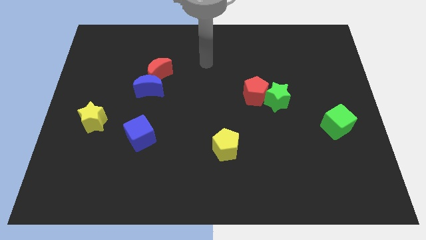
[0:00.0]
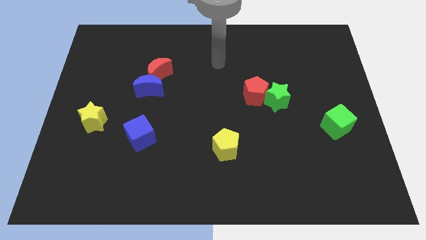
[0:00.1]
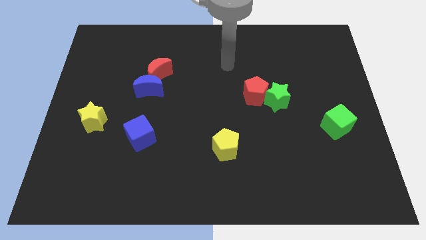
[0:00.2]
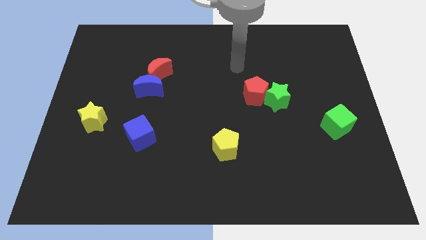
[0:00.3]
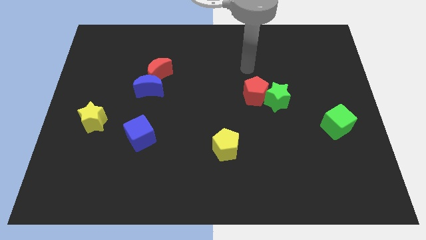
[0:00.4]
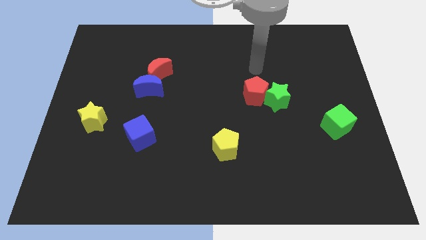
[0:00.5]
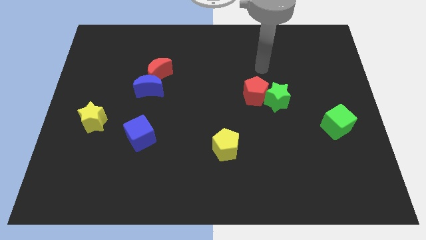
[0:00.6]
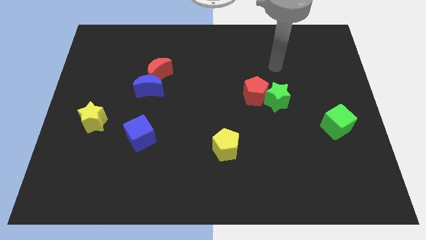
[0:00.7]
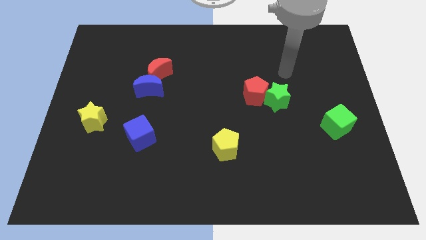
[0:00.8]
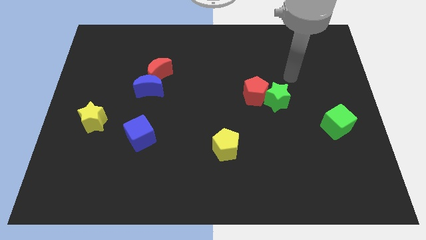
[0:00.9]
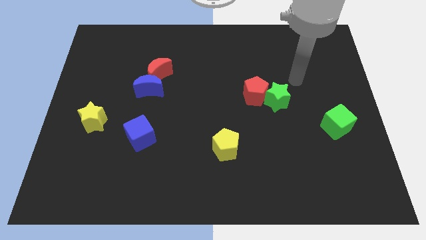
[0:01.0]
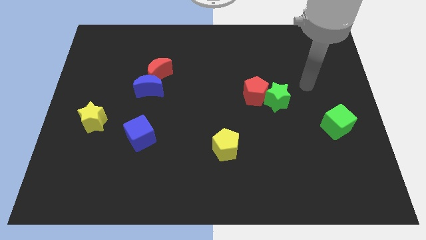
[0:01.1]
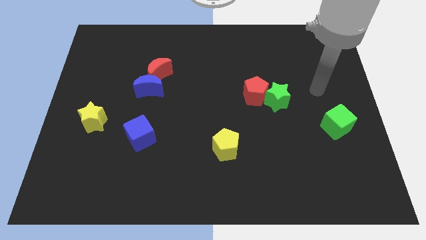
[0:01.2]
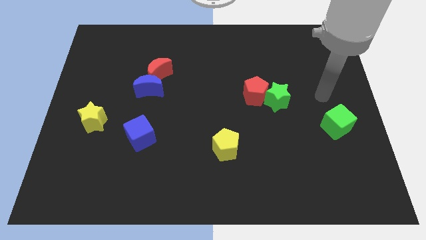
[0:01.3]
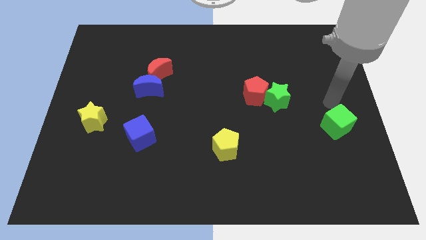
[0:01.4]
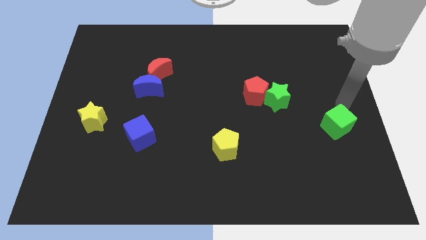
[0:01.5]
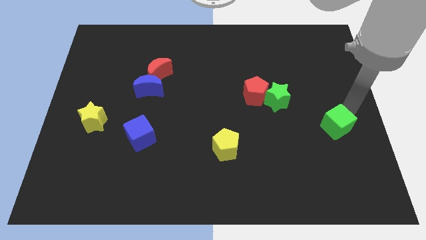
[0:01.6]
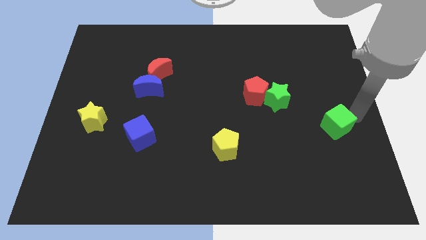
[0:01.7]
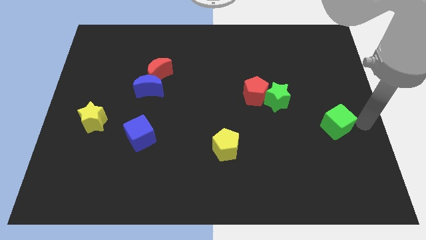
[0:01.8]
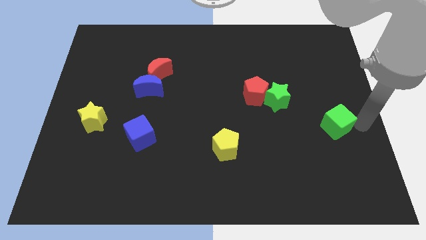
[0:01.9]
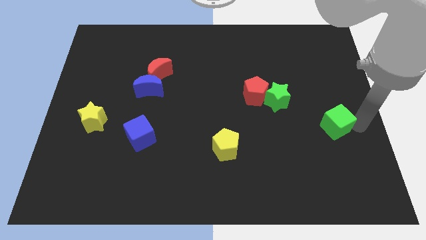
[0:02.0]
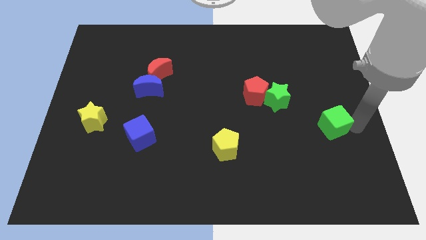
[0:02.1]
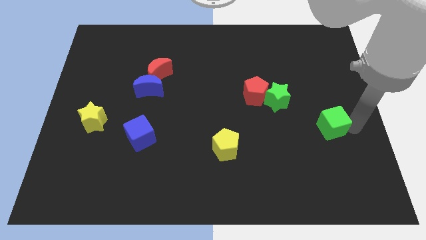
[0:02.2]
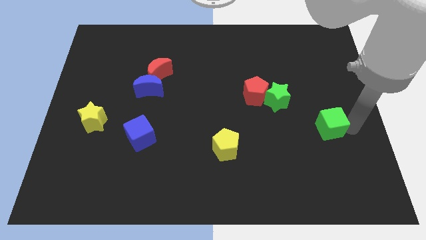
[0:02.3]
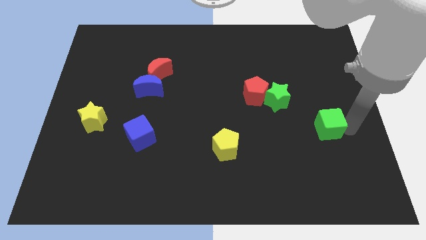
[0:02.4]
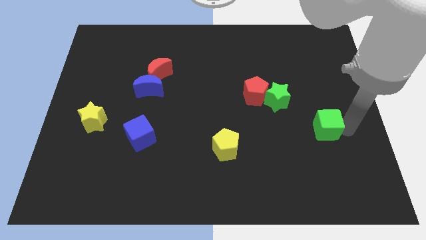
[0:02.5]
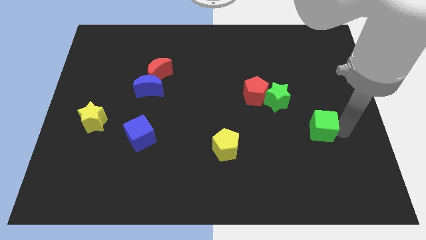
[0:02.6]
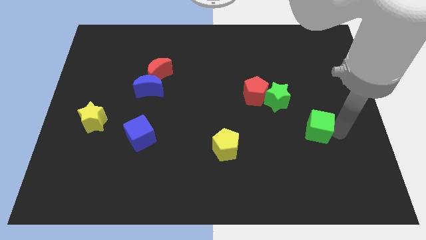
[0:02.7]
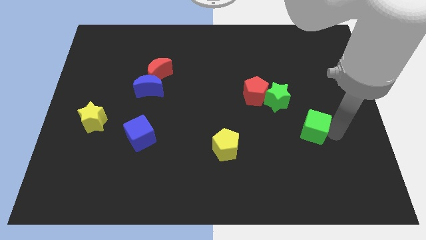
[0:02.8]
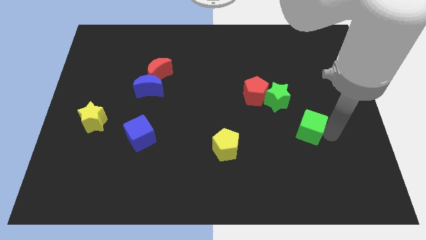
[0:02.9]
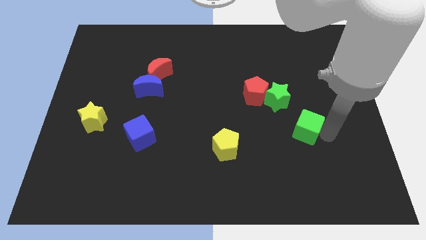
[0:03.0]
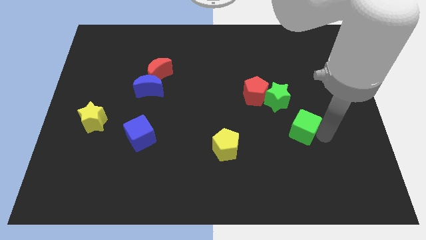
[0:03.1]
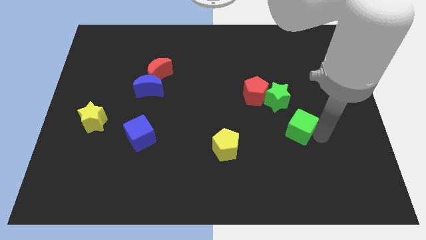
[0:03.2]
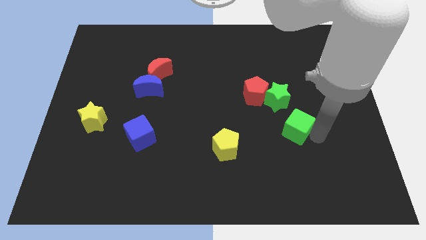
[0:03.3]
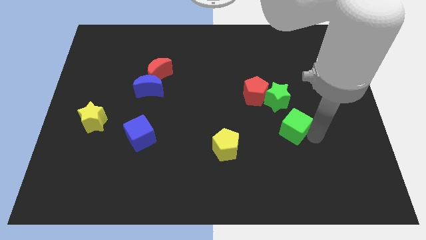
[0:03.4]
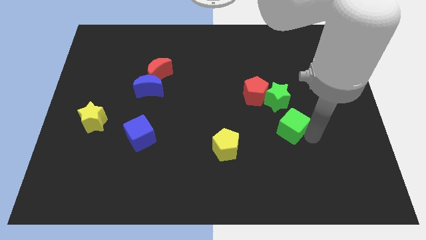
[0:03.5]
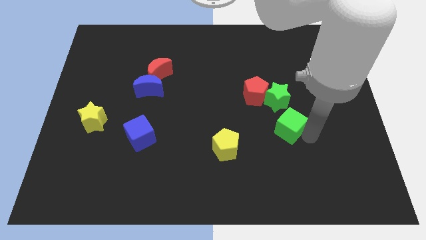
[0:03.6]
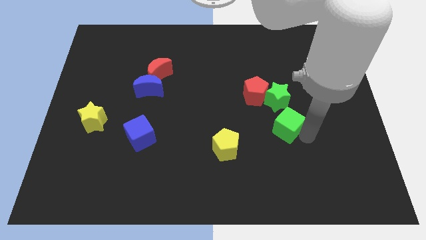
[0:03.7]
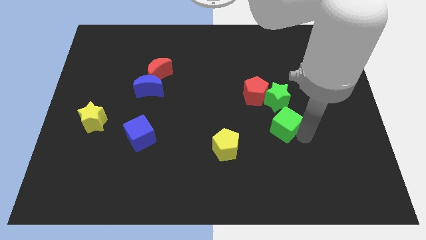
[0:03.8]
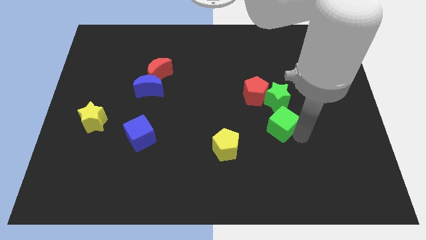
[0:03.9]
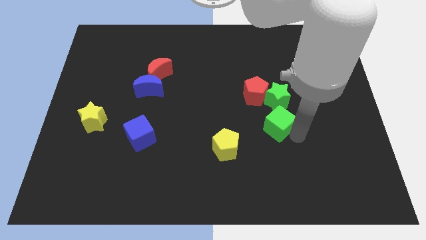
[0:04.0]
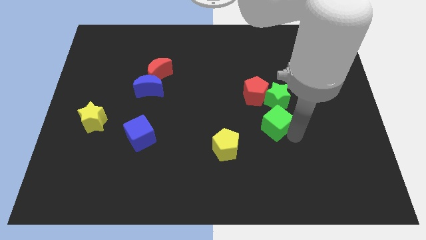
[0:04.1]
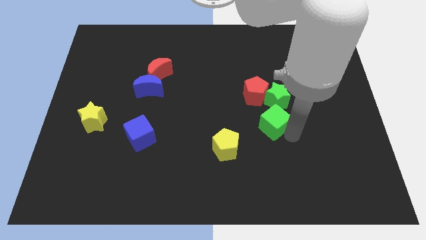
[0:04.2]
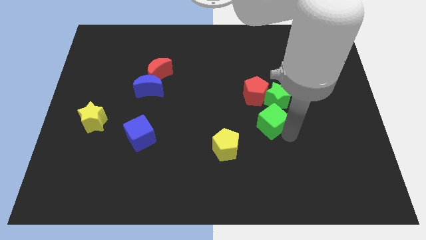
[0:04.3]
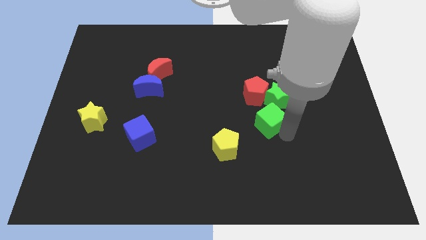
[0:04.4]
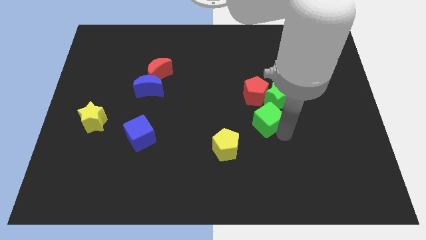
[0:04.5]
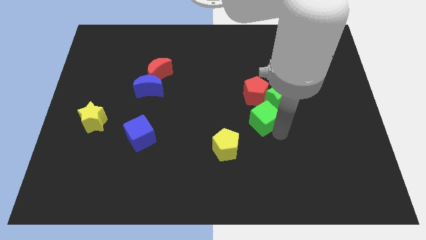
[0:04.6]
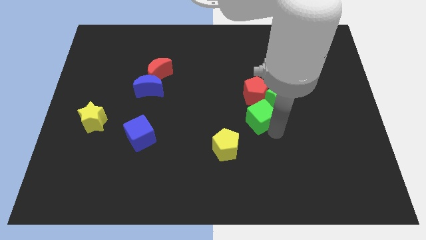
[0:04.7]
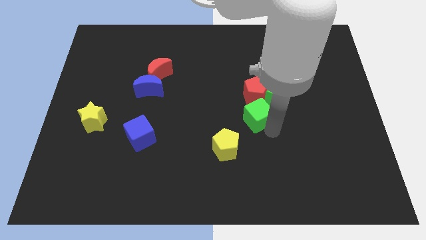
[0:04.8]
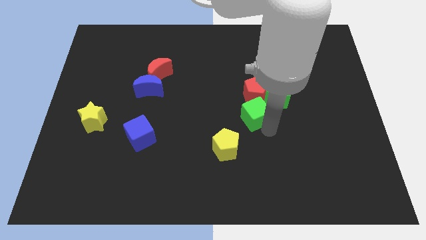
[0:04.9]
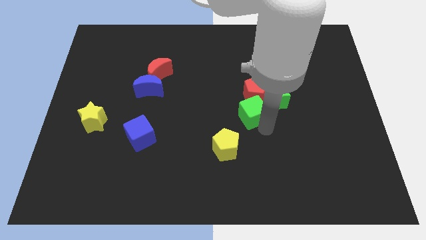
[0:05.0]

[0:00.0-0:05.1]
put the green cube close to the red pentagon

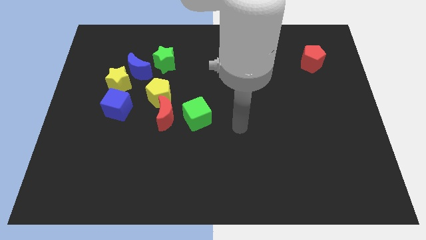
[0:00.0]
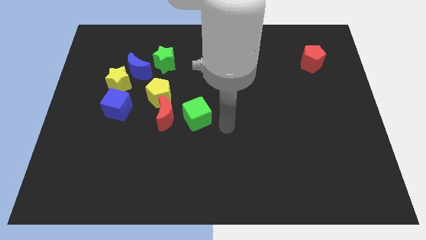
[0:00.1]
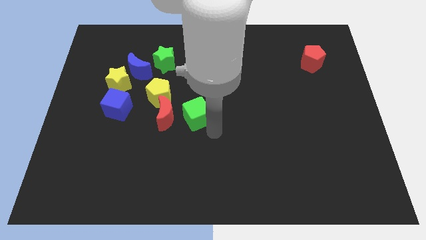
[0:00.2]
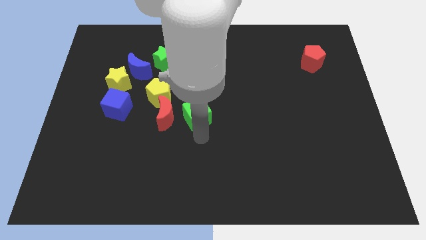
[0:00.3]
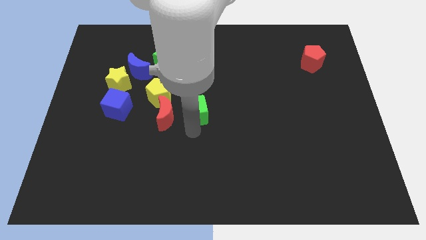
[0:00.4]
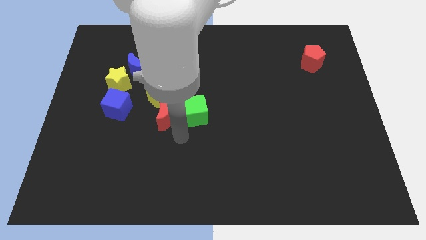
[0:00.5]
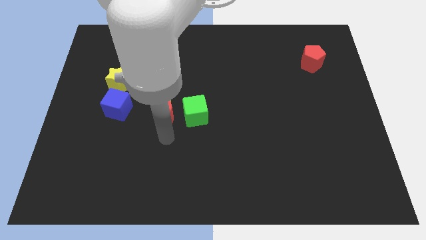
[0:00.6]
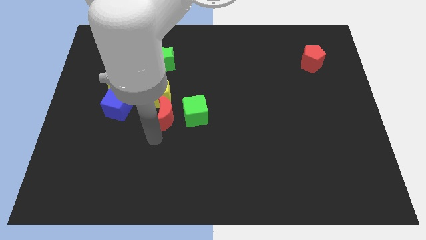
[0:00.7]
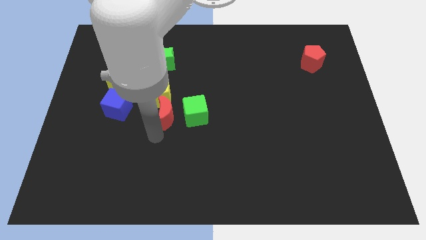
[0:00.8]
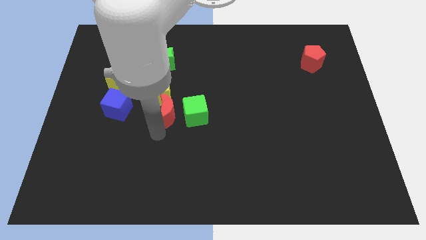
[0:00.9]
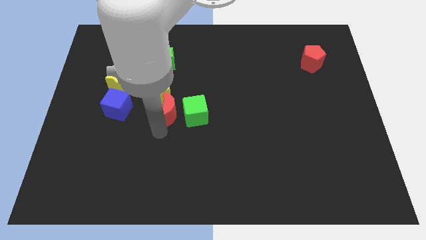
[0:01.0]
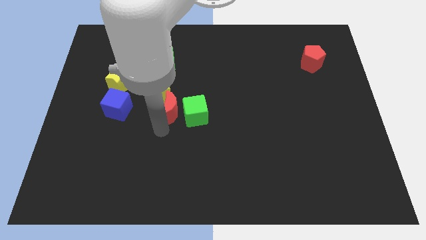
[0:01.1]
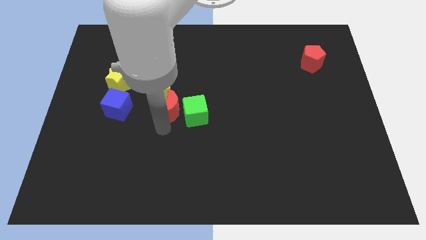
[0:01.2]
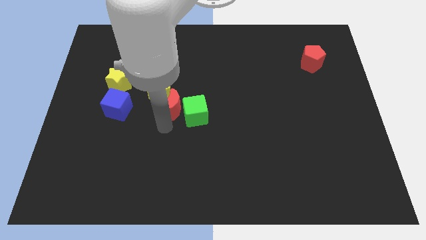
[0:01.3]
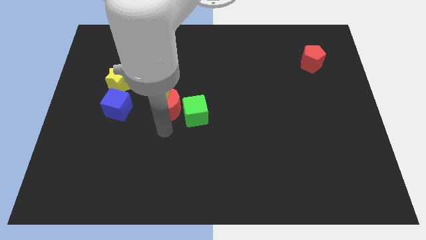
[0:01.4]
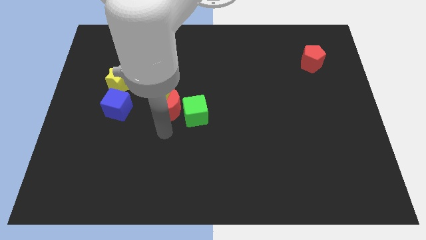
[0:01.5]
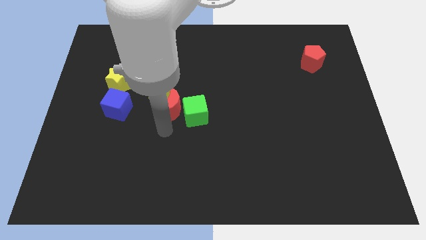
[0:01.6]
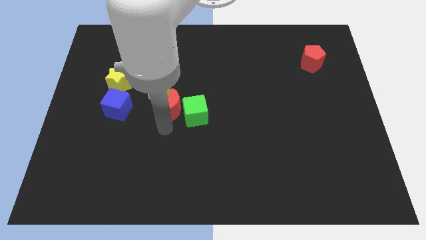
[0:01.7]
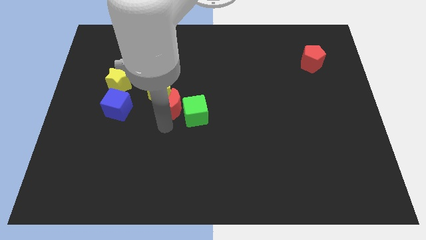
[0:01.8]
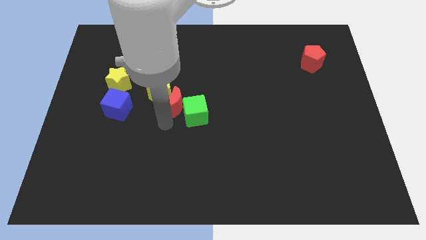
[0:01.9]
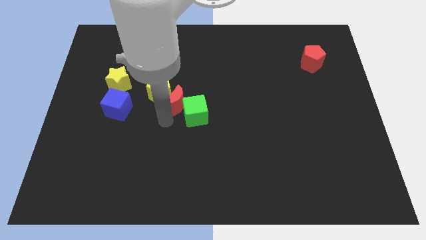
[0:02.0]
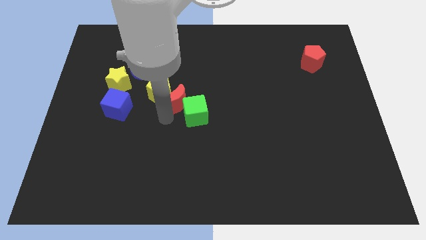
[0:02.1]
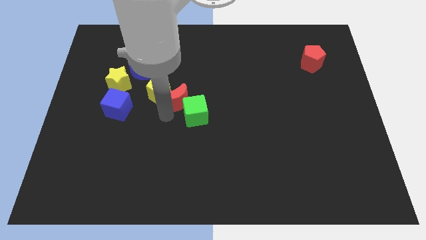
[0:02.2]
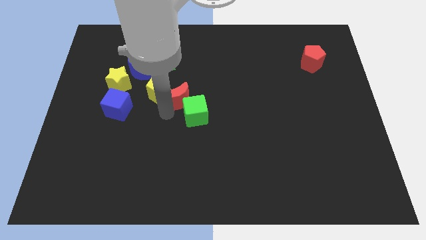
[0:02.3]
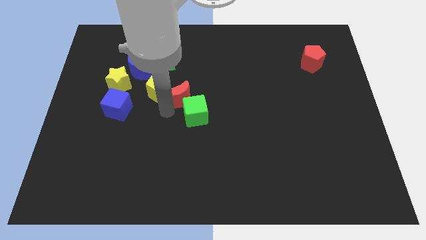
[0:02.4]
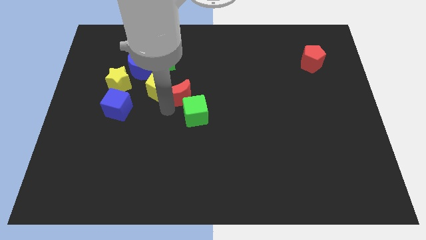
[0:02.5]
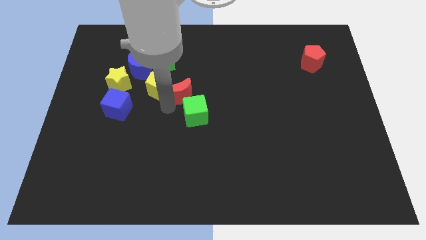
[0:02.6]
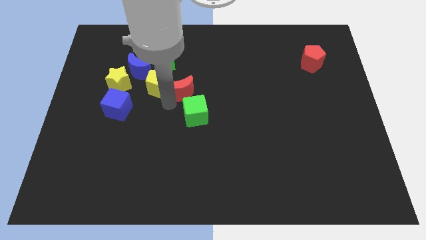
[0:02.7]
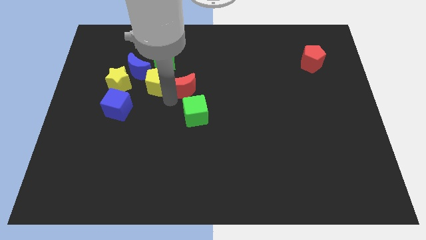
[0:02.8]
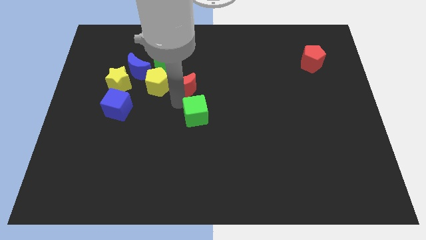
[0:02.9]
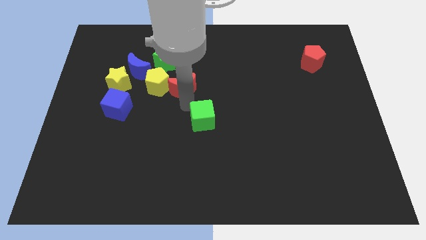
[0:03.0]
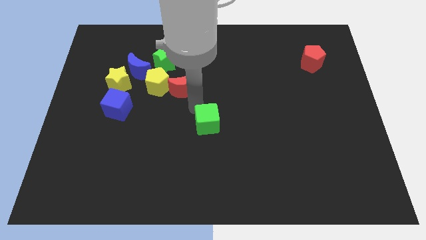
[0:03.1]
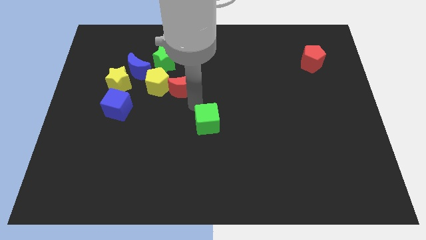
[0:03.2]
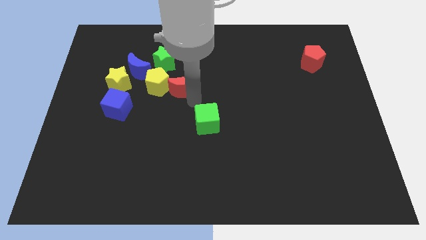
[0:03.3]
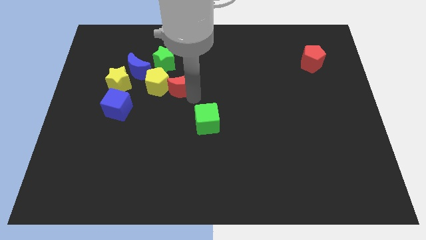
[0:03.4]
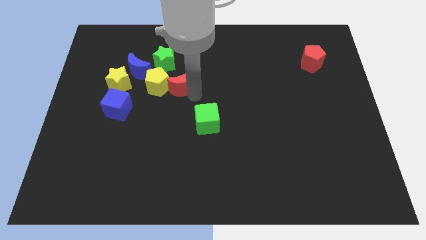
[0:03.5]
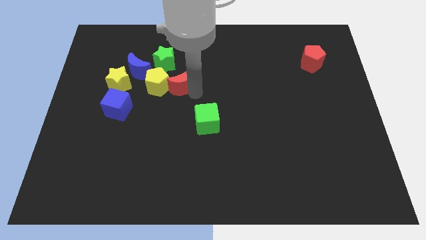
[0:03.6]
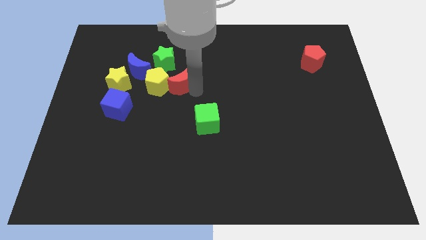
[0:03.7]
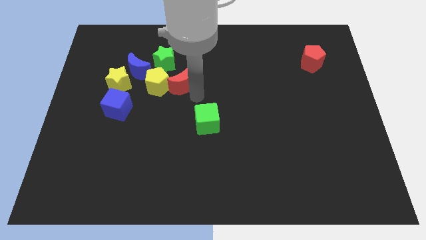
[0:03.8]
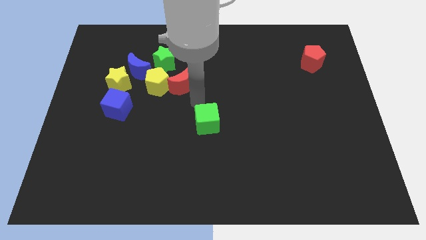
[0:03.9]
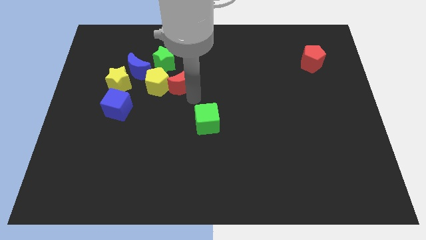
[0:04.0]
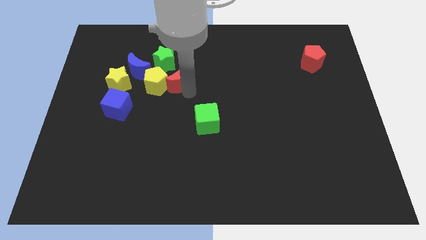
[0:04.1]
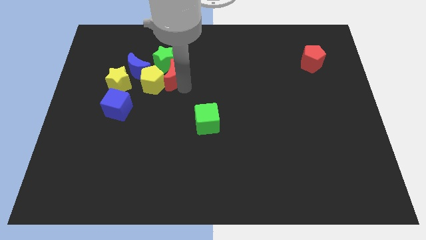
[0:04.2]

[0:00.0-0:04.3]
put the red moon to the green star
